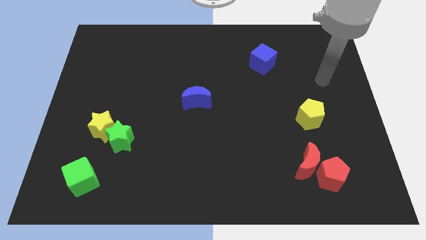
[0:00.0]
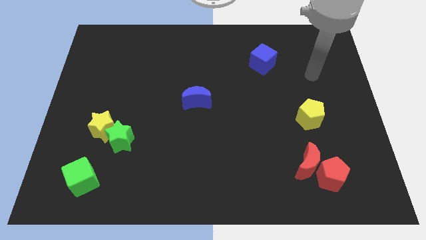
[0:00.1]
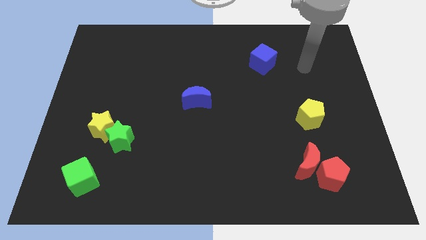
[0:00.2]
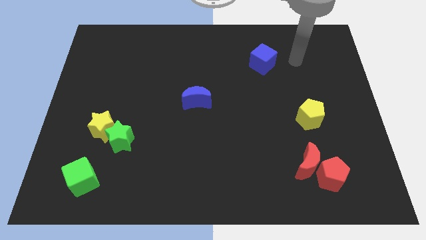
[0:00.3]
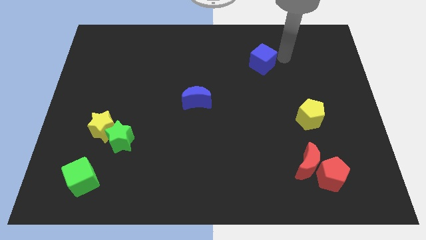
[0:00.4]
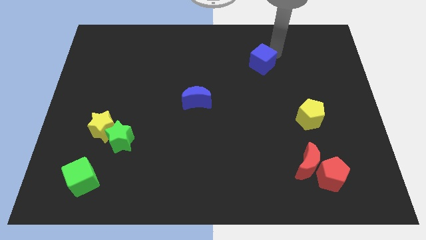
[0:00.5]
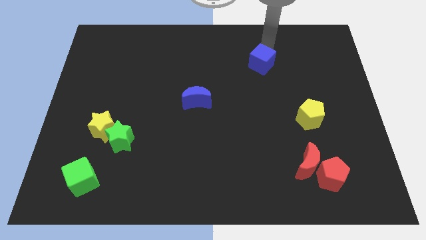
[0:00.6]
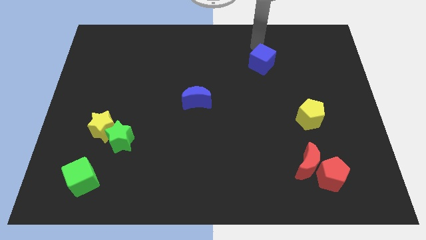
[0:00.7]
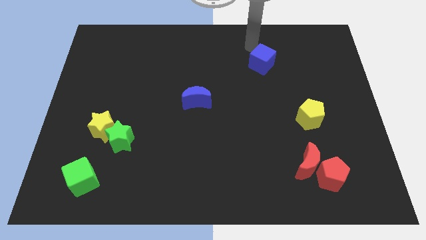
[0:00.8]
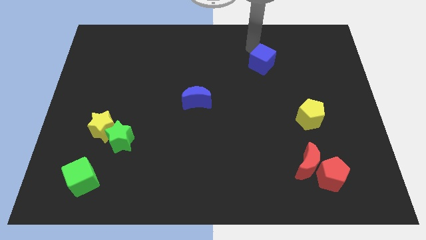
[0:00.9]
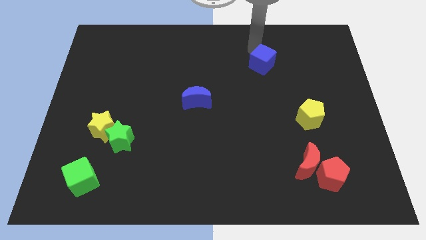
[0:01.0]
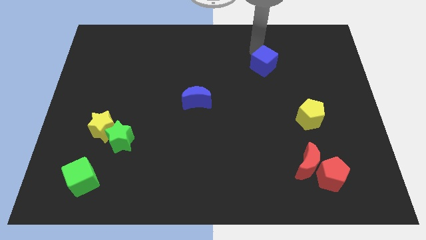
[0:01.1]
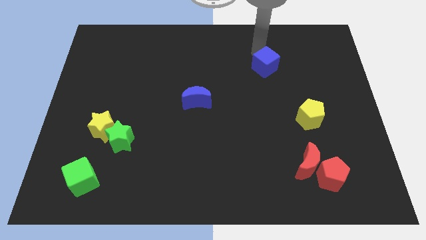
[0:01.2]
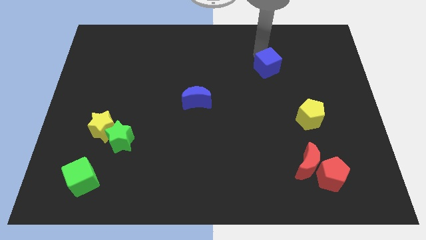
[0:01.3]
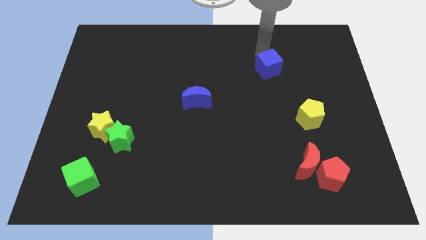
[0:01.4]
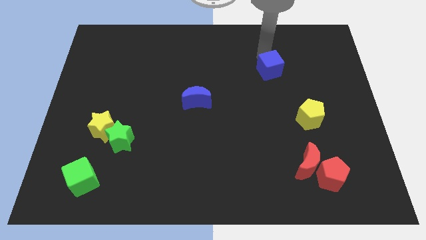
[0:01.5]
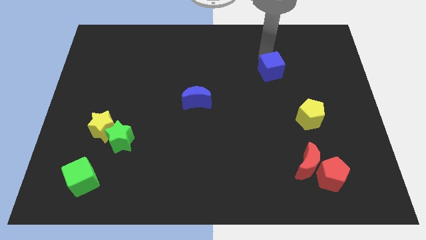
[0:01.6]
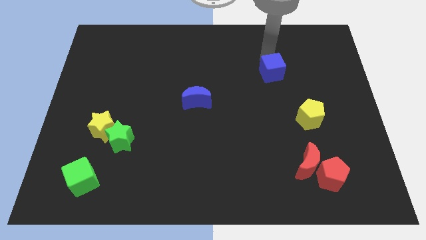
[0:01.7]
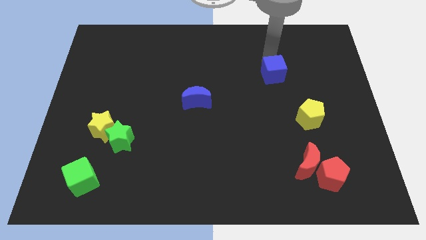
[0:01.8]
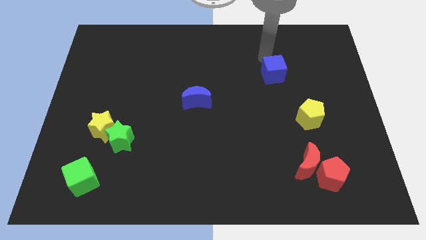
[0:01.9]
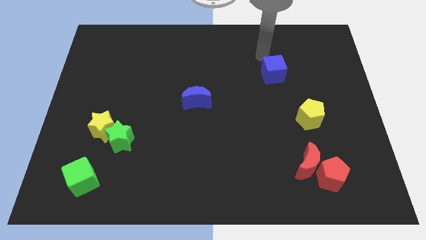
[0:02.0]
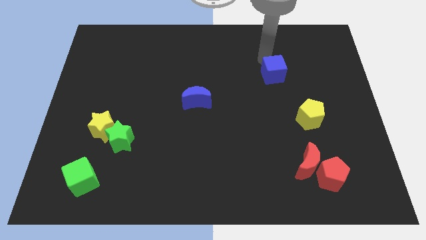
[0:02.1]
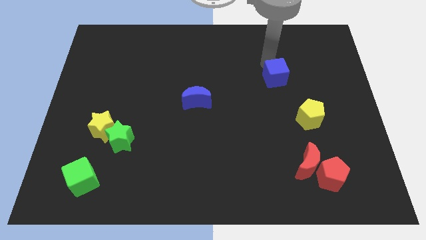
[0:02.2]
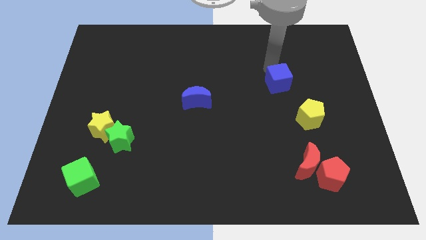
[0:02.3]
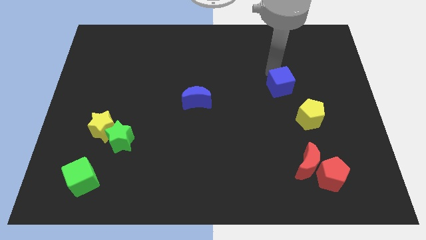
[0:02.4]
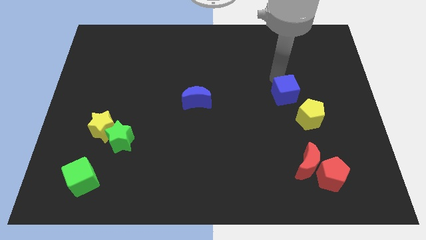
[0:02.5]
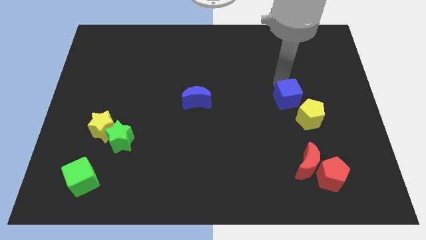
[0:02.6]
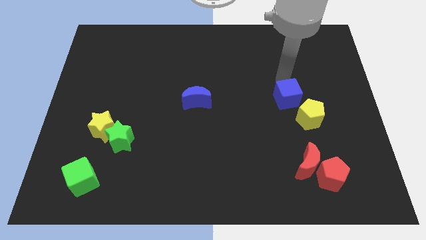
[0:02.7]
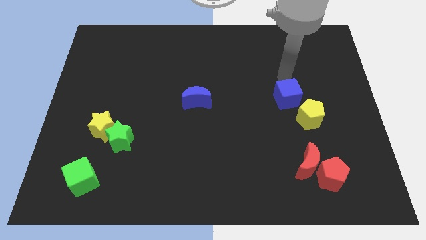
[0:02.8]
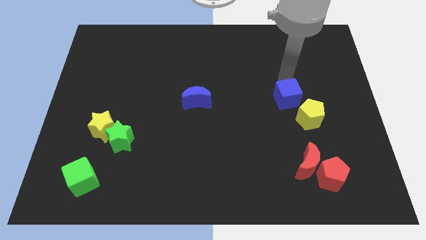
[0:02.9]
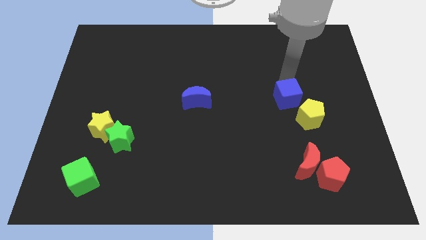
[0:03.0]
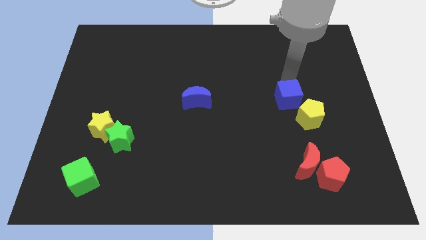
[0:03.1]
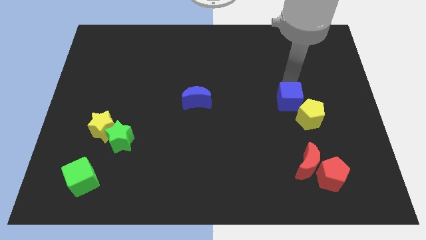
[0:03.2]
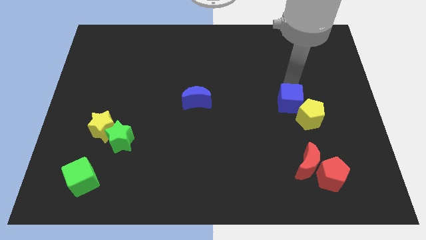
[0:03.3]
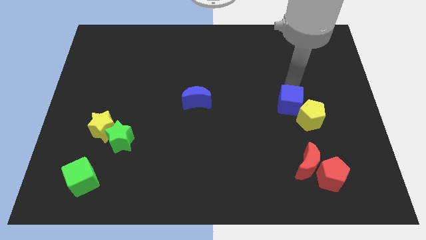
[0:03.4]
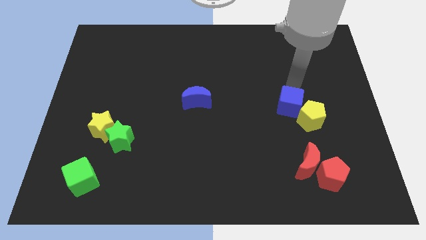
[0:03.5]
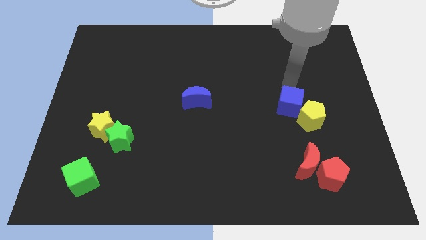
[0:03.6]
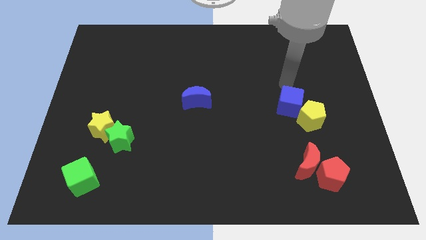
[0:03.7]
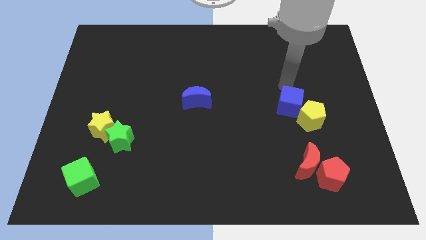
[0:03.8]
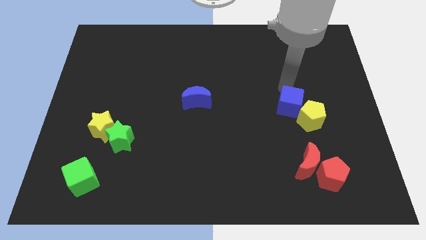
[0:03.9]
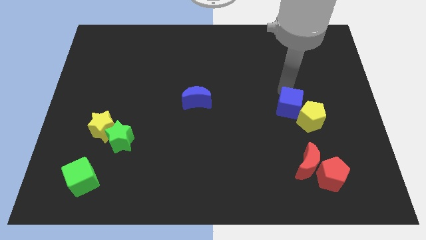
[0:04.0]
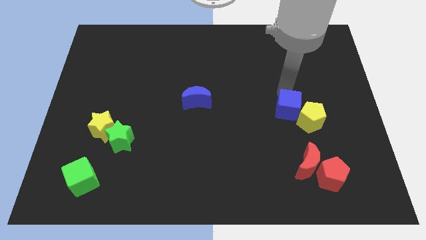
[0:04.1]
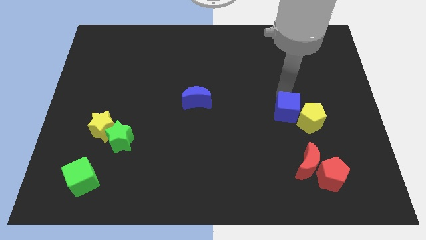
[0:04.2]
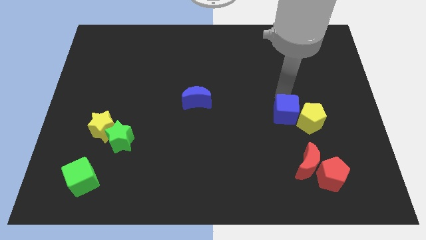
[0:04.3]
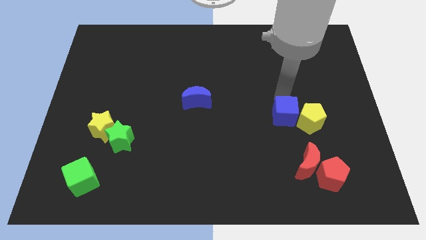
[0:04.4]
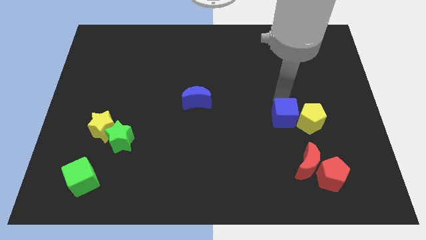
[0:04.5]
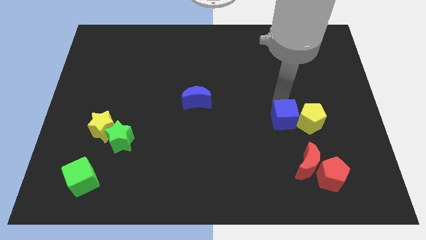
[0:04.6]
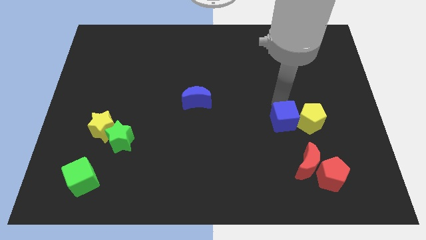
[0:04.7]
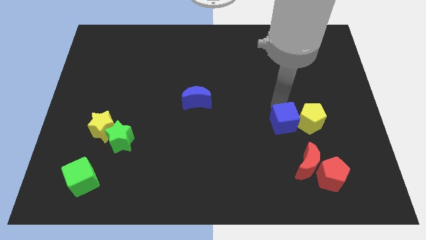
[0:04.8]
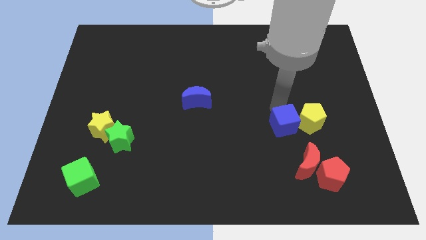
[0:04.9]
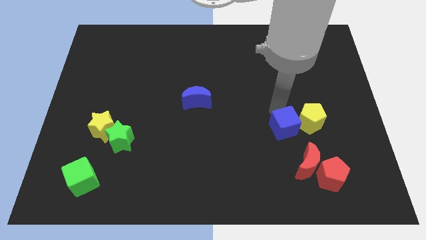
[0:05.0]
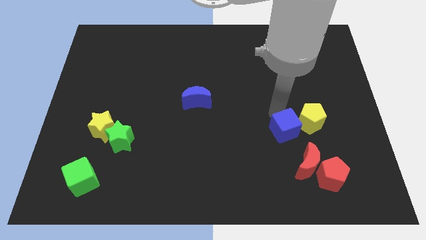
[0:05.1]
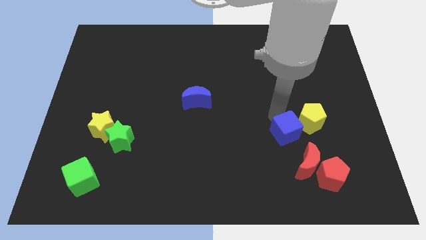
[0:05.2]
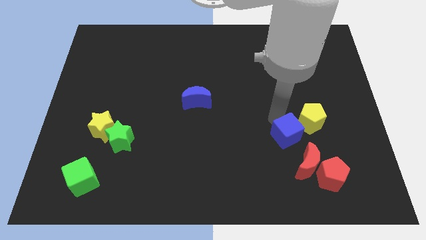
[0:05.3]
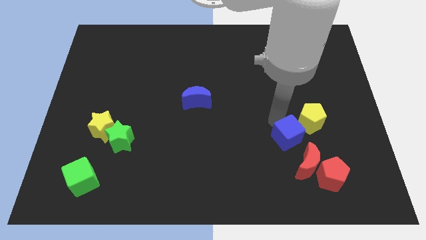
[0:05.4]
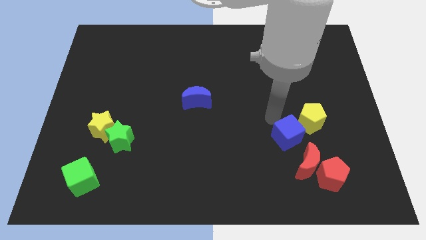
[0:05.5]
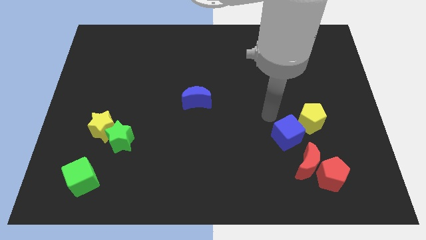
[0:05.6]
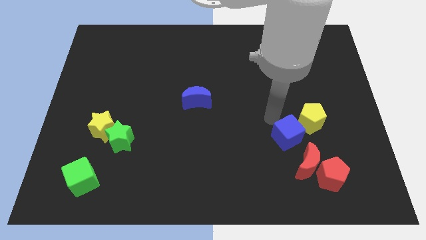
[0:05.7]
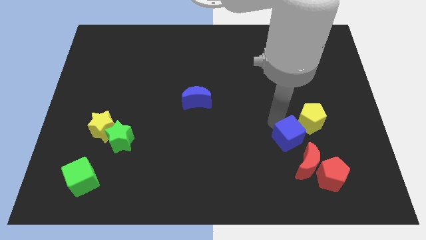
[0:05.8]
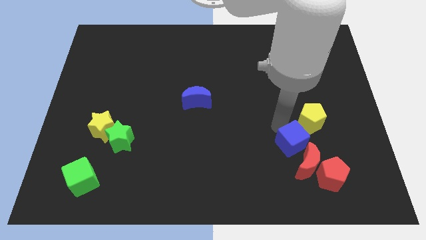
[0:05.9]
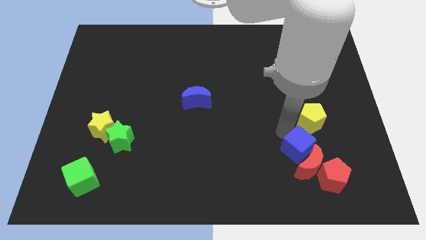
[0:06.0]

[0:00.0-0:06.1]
put the blue cube close to the red moon

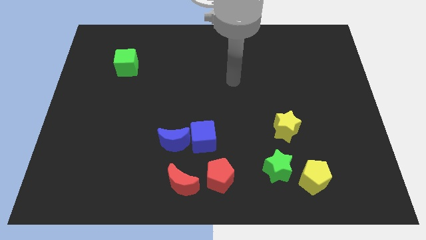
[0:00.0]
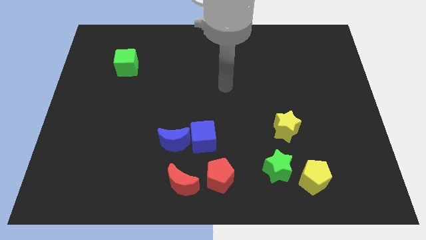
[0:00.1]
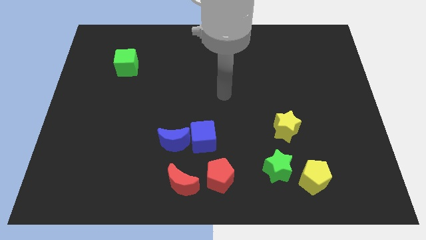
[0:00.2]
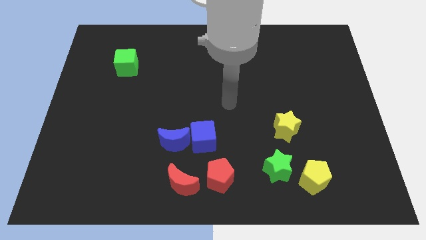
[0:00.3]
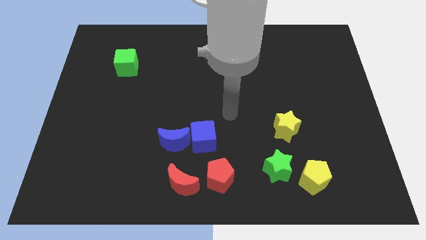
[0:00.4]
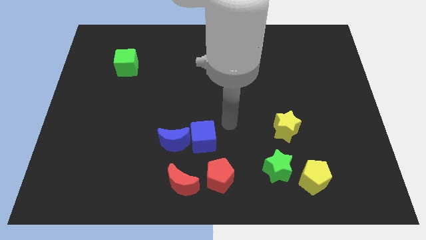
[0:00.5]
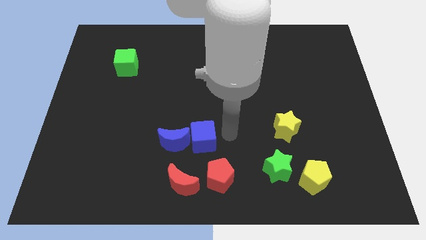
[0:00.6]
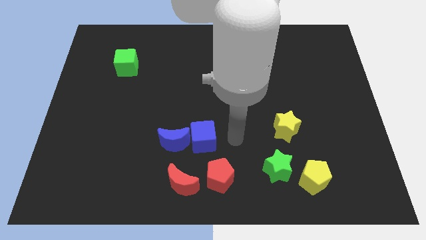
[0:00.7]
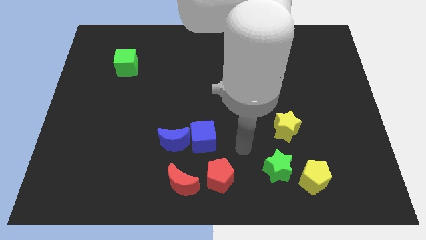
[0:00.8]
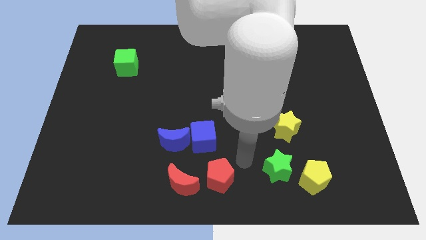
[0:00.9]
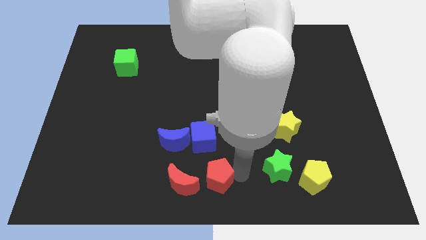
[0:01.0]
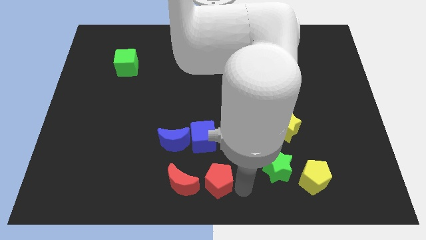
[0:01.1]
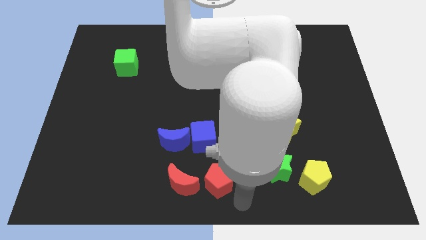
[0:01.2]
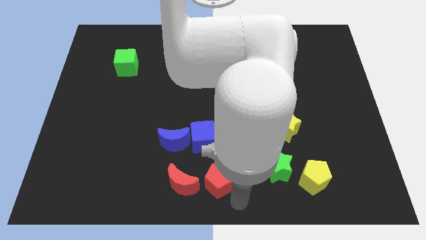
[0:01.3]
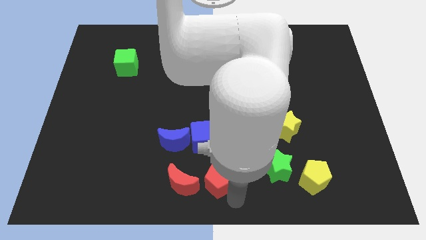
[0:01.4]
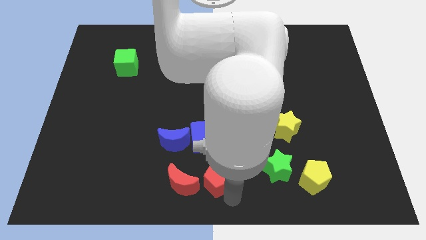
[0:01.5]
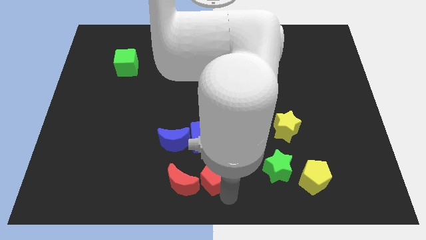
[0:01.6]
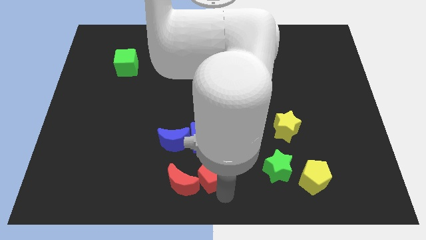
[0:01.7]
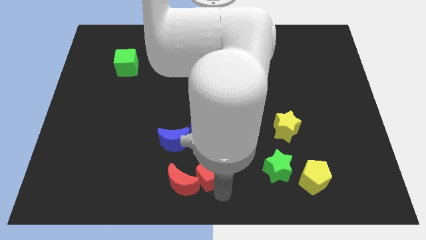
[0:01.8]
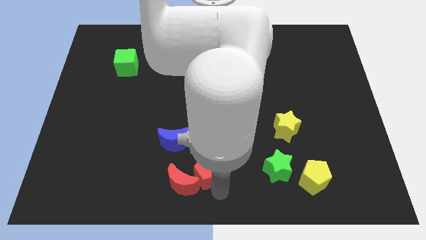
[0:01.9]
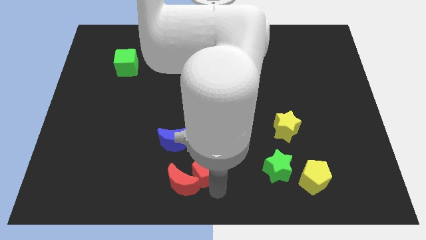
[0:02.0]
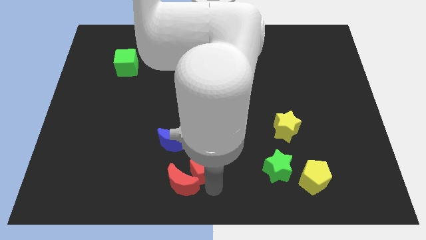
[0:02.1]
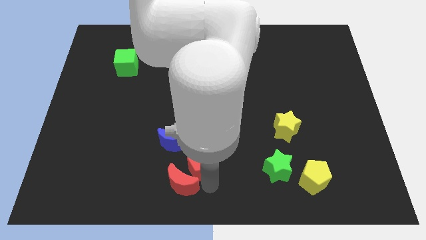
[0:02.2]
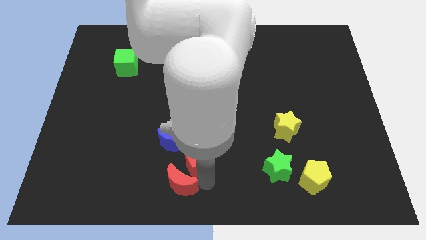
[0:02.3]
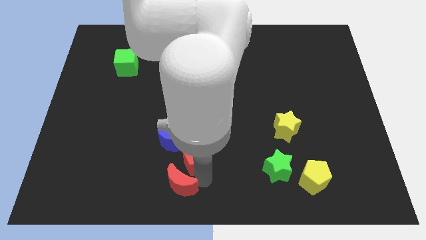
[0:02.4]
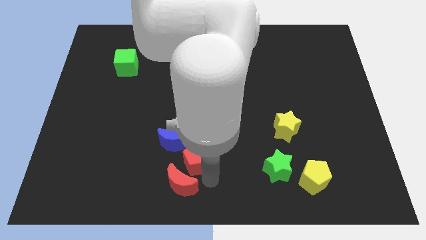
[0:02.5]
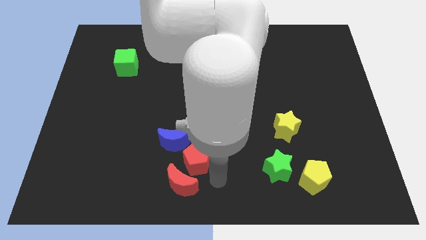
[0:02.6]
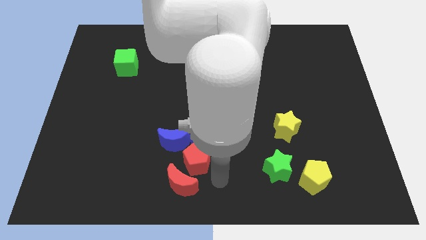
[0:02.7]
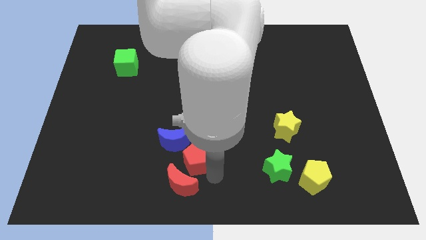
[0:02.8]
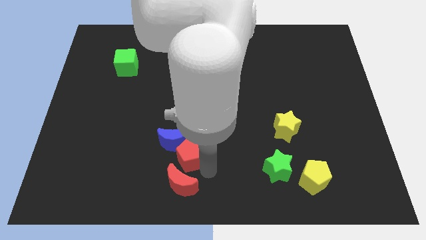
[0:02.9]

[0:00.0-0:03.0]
slide the red pentagon to the blue moon
